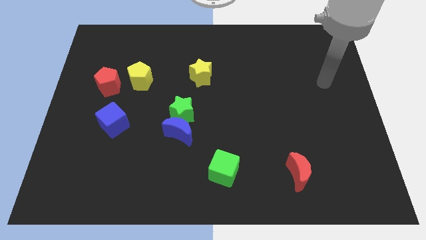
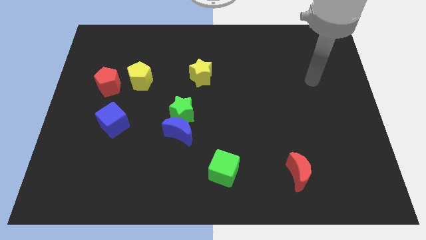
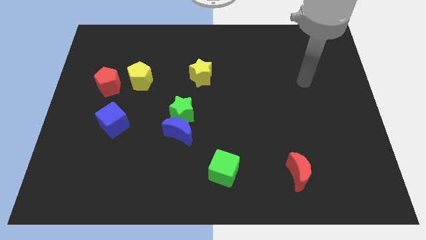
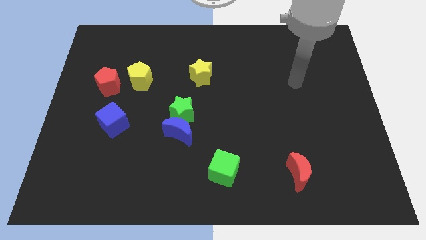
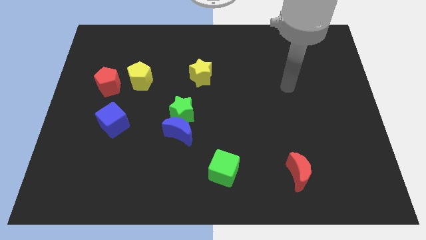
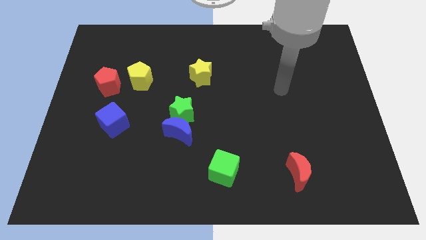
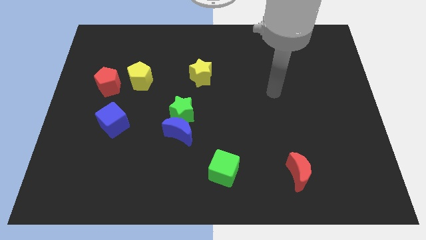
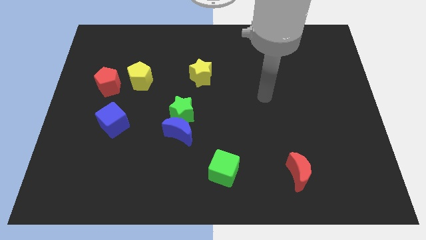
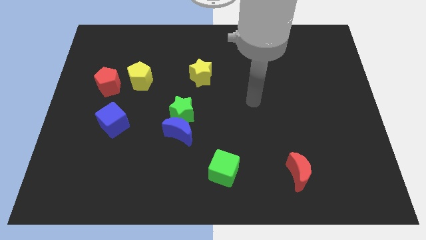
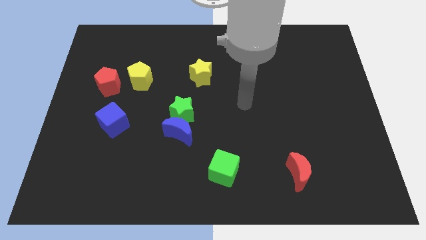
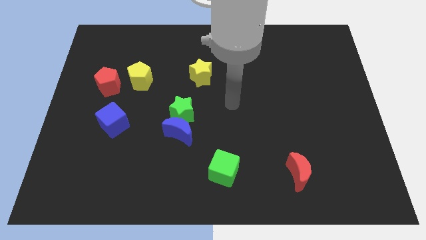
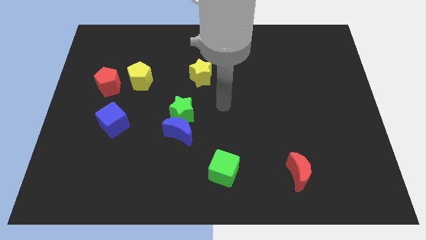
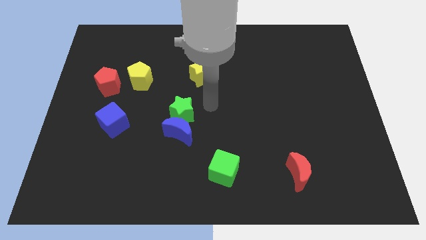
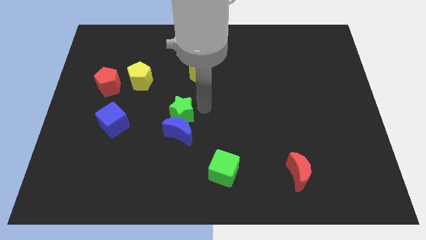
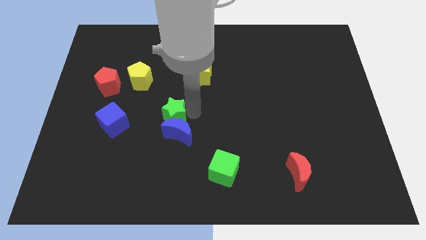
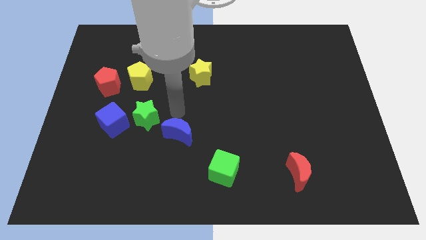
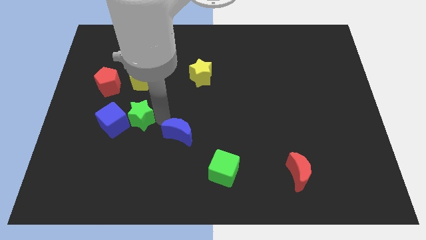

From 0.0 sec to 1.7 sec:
separate the blue moon from the green star

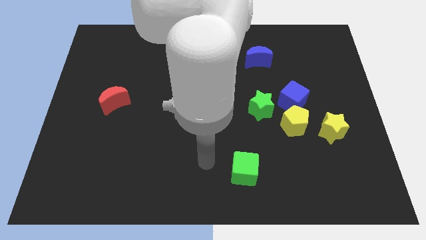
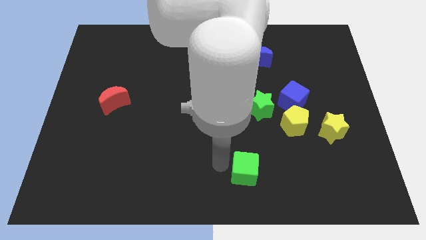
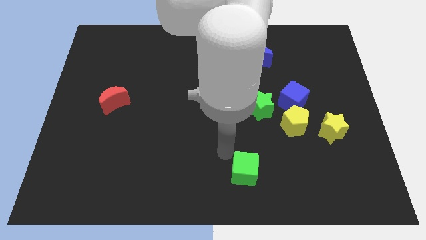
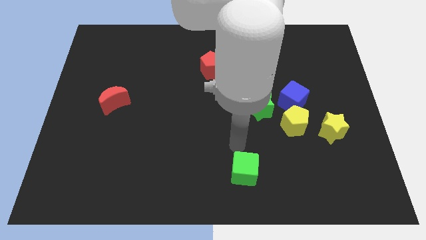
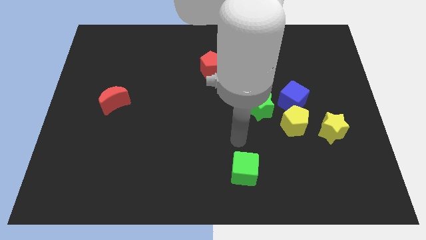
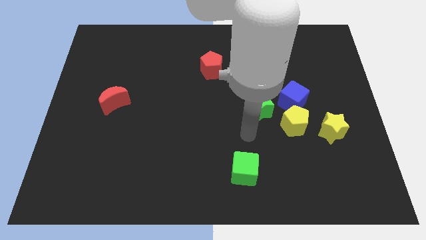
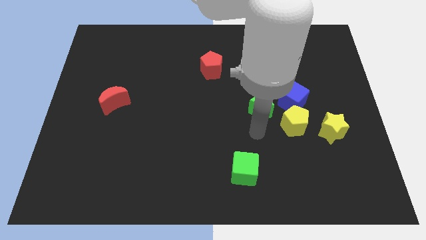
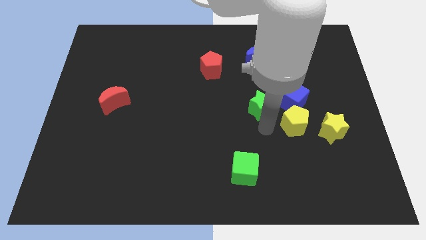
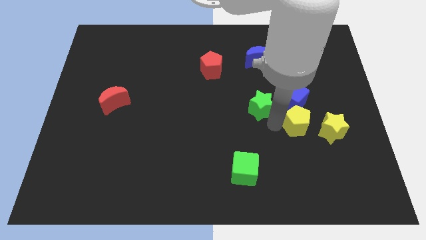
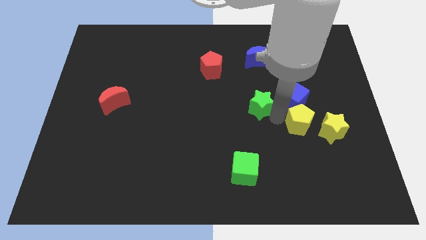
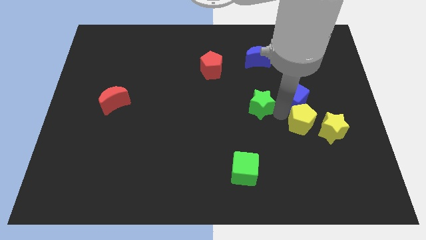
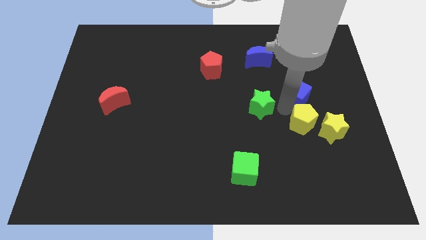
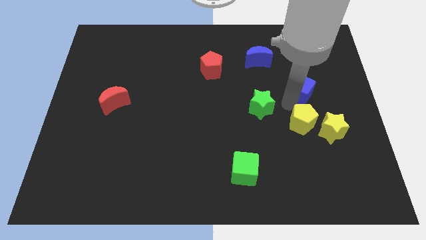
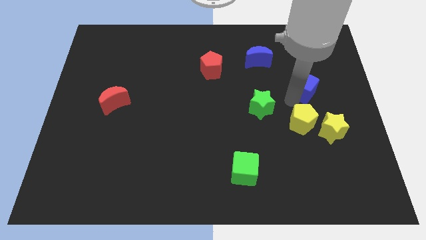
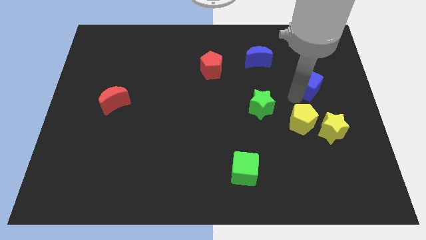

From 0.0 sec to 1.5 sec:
pull the blue cube apart from the yellow pentagon and green star

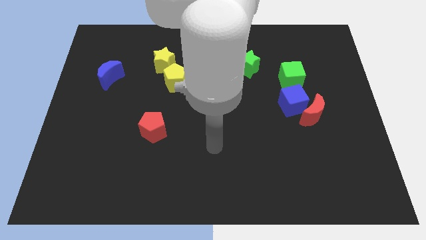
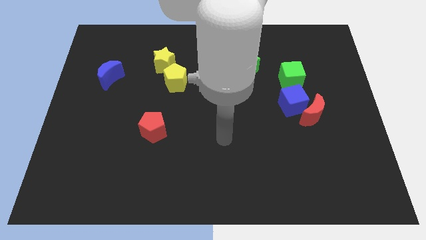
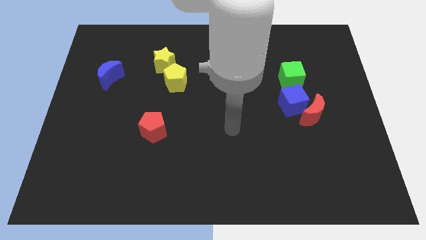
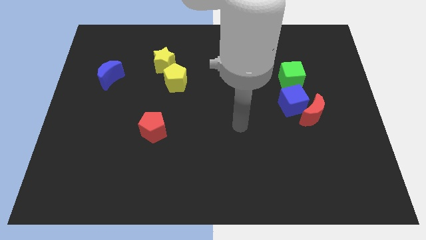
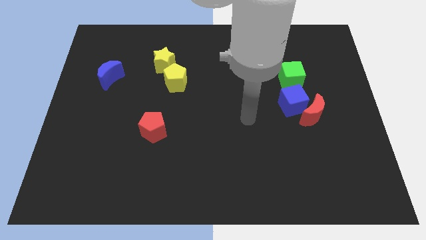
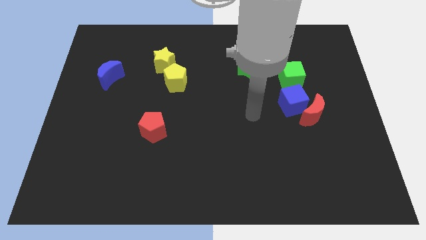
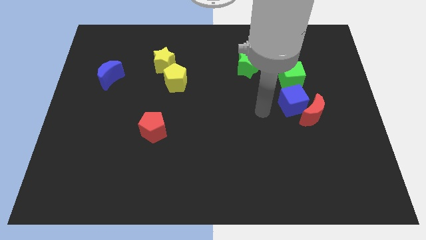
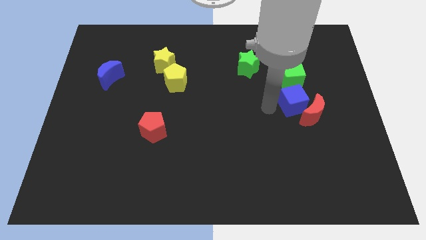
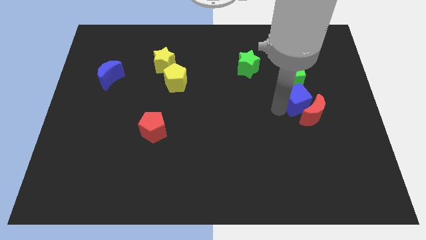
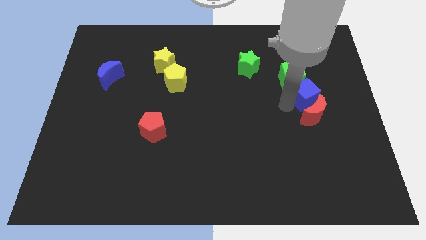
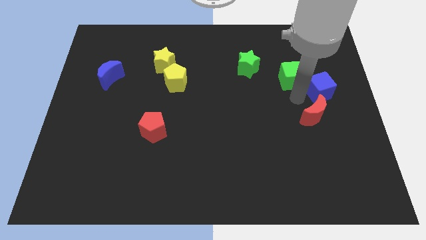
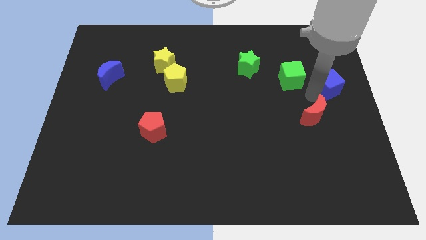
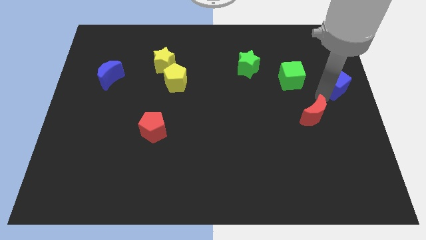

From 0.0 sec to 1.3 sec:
pull the red moon apart from the blue cube

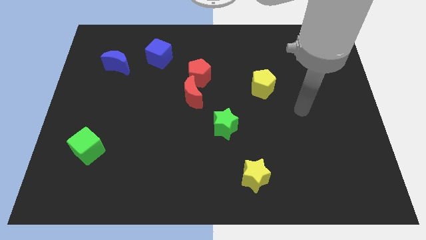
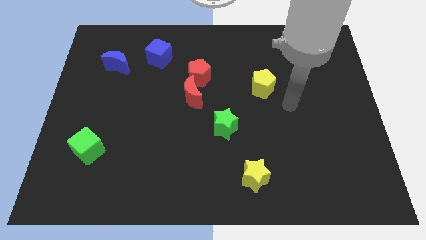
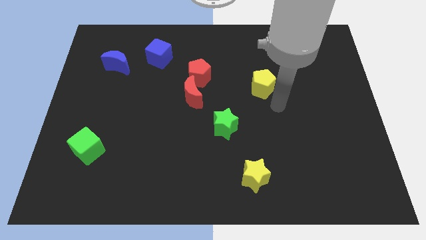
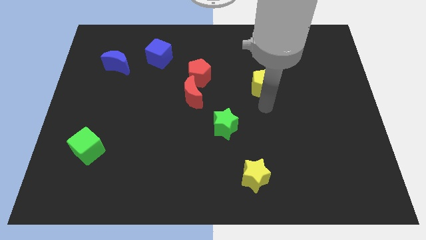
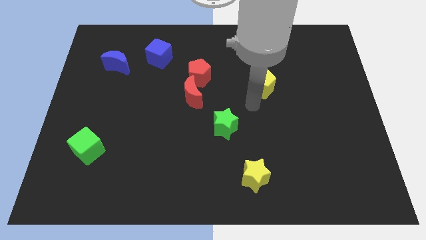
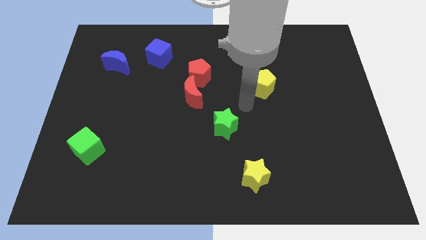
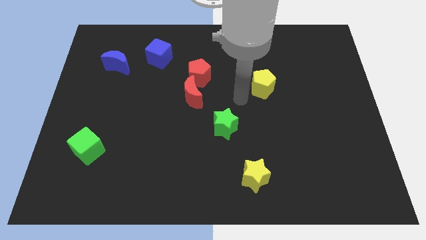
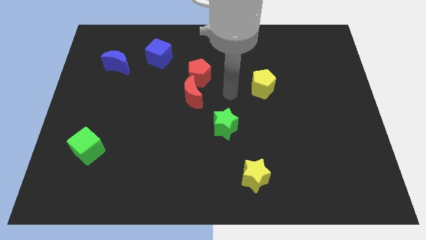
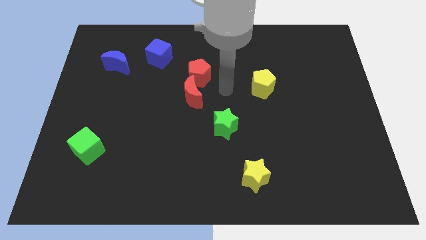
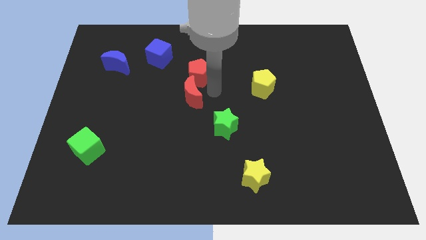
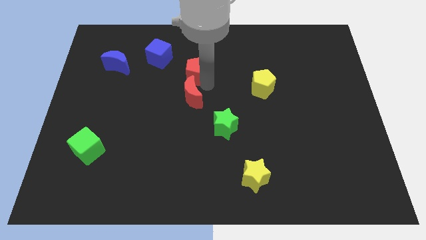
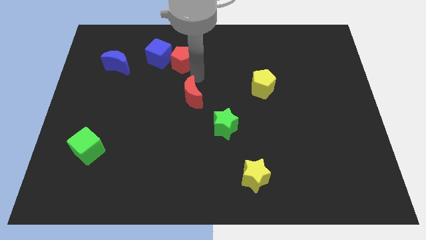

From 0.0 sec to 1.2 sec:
move the red moon away from the red pentagon

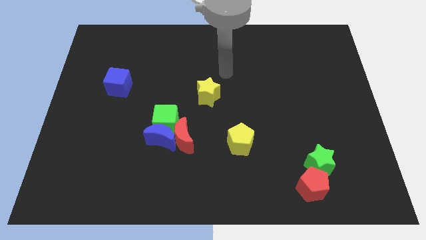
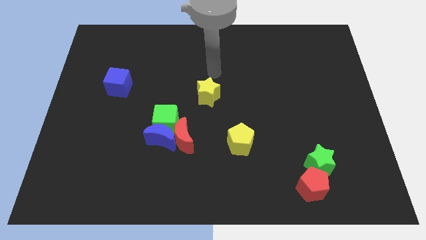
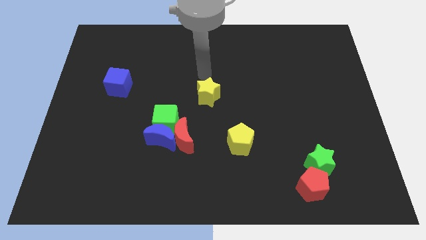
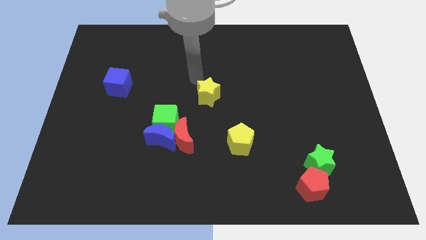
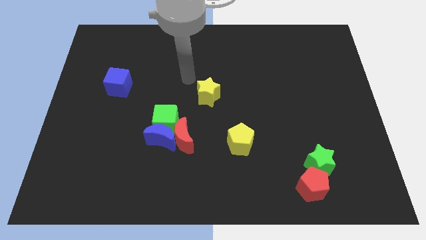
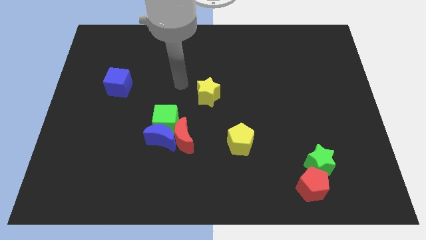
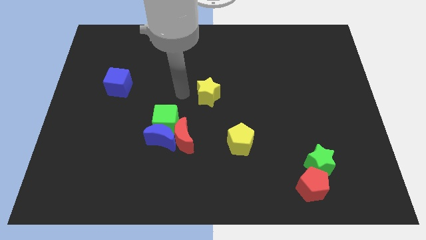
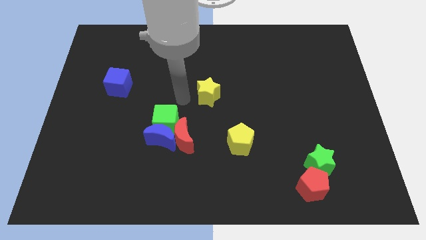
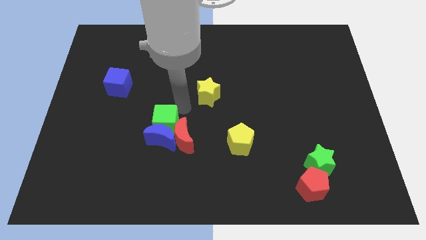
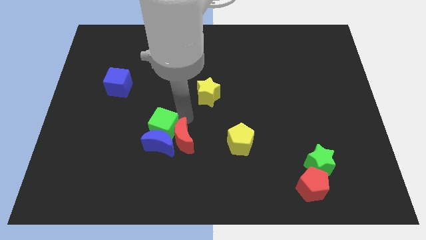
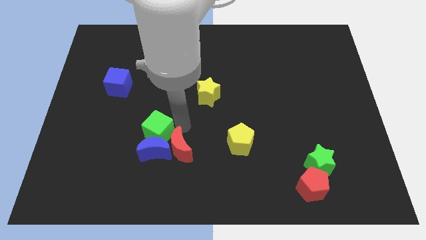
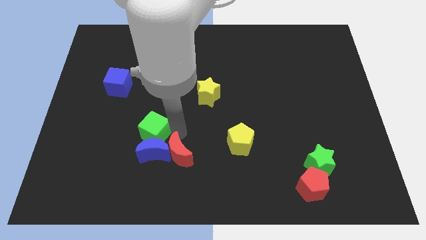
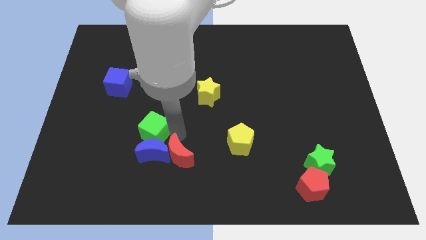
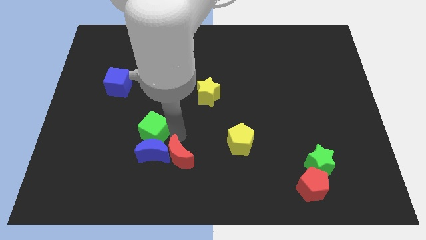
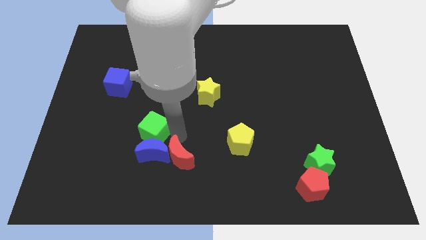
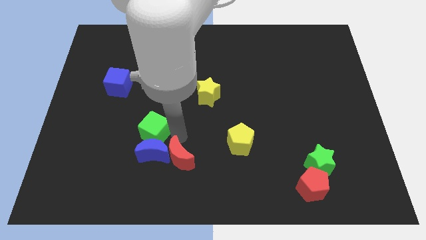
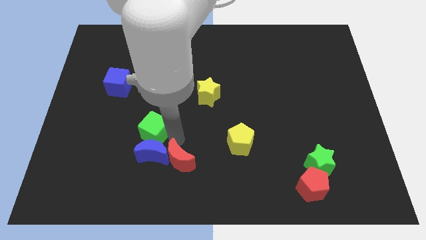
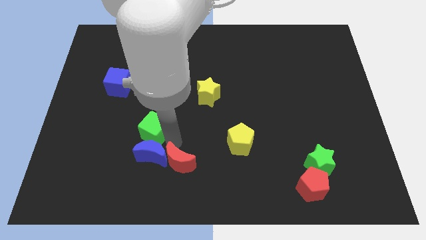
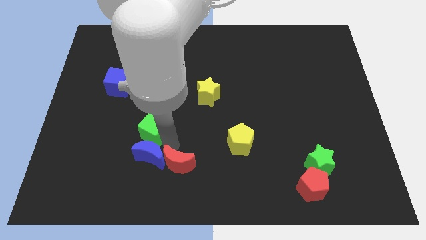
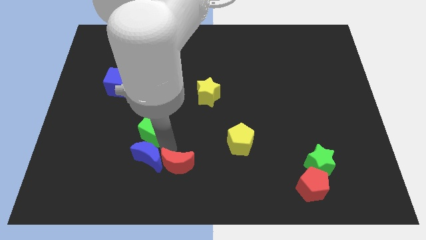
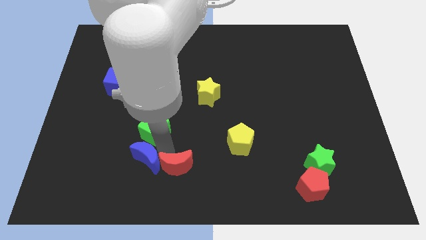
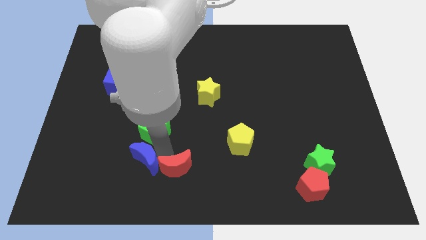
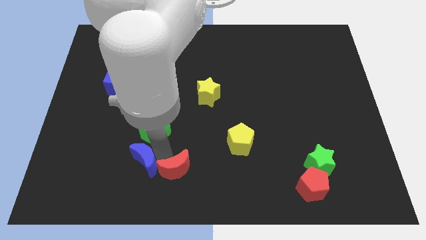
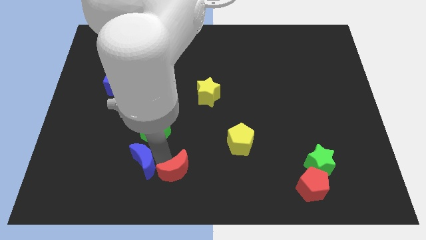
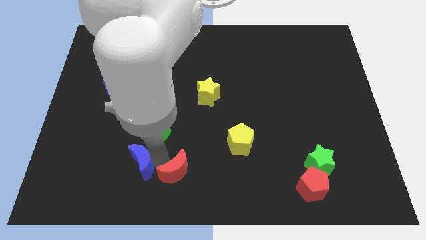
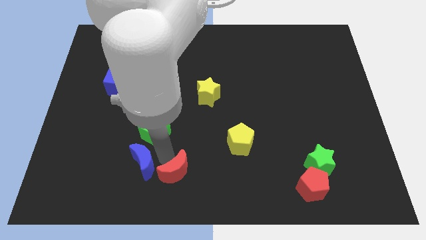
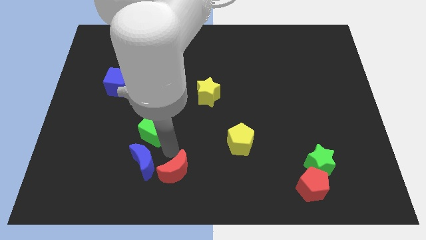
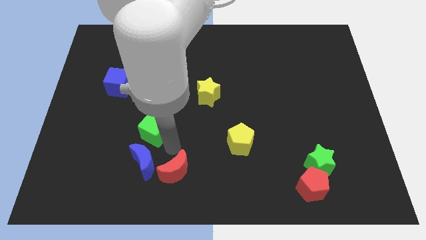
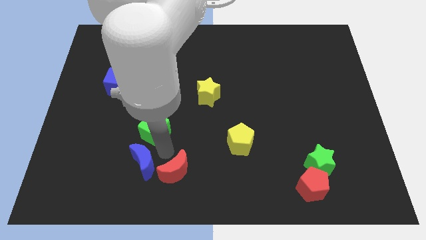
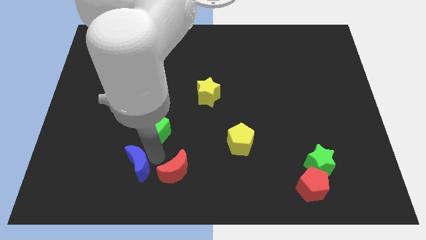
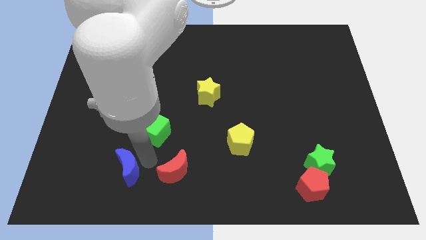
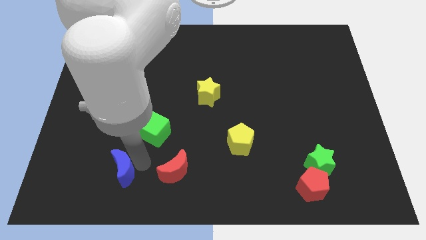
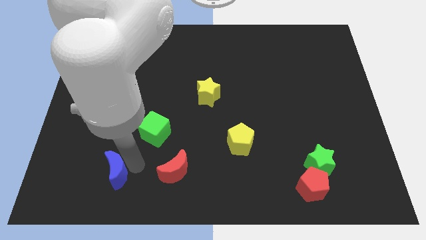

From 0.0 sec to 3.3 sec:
separate the blue moon from the green cube and red moon

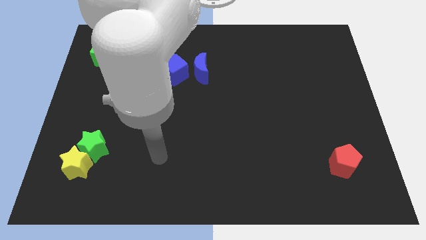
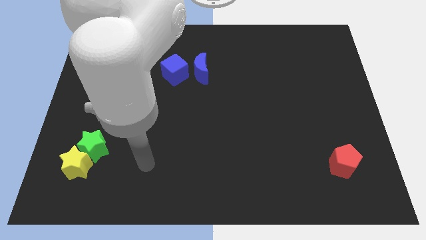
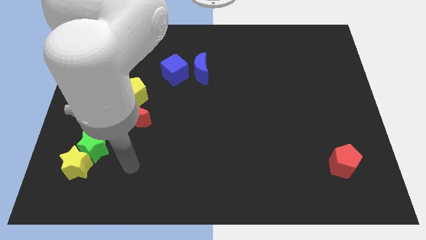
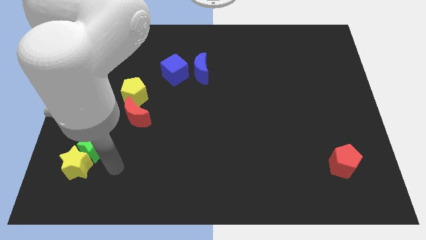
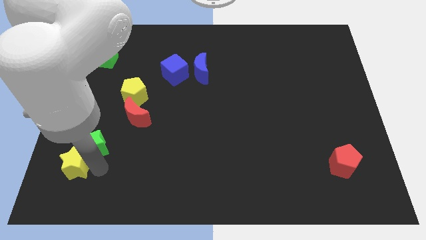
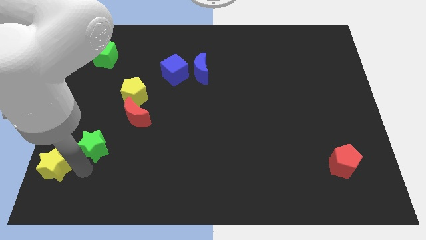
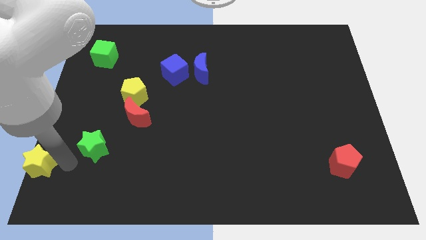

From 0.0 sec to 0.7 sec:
separate the green star from the yellow star
